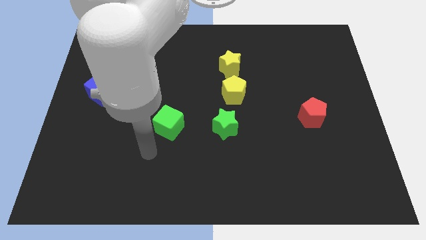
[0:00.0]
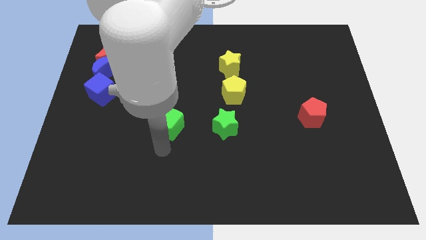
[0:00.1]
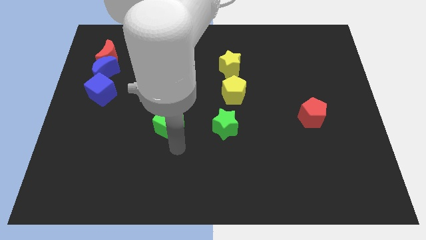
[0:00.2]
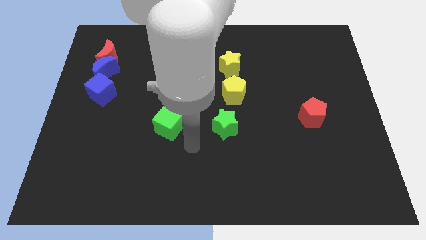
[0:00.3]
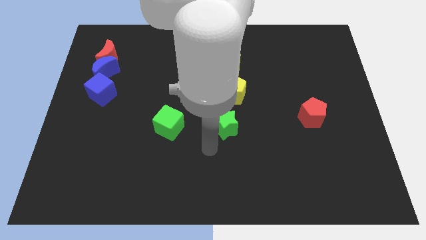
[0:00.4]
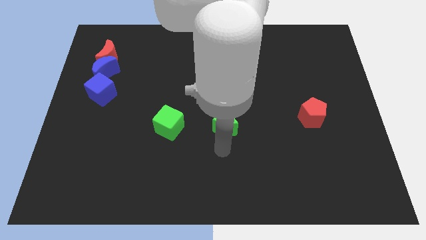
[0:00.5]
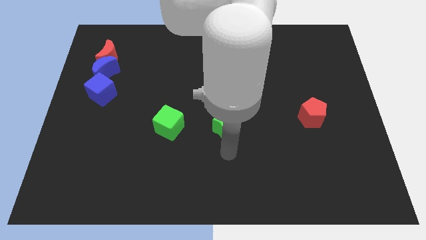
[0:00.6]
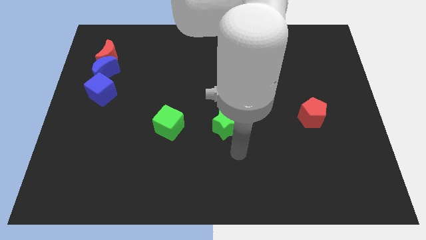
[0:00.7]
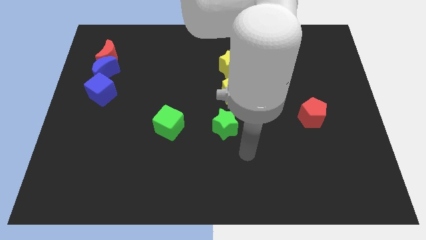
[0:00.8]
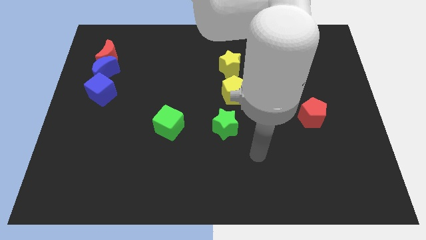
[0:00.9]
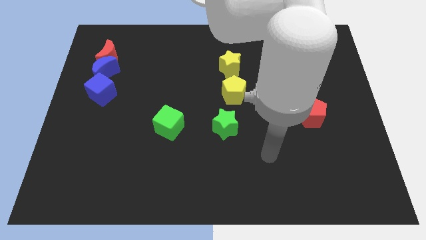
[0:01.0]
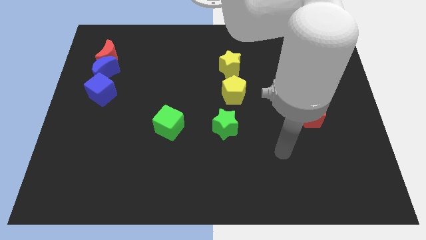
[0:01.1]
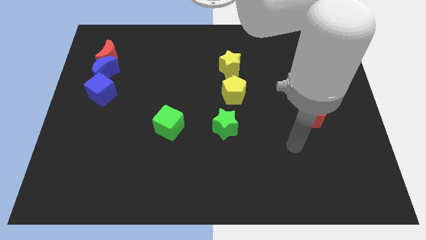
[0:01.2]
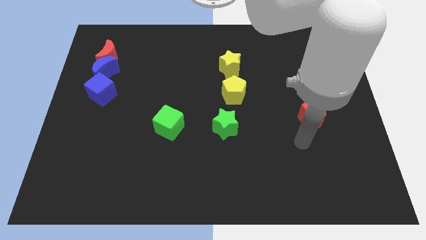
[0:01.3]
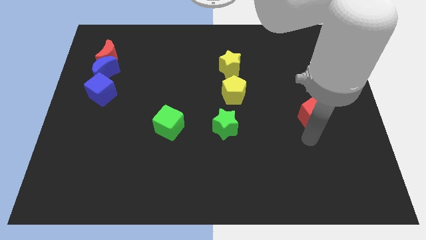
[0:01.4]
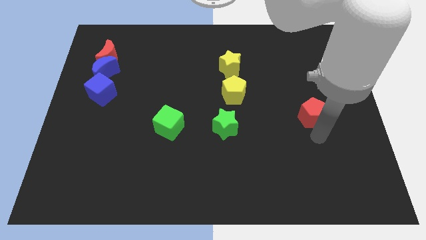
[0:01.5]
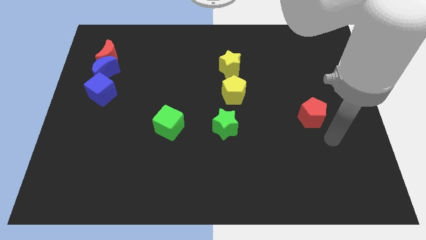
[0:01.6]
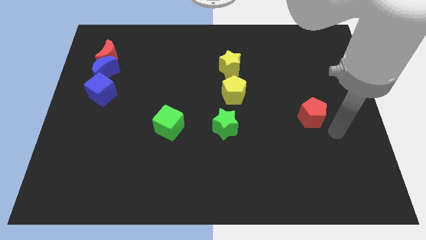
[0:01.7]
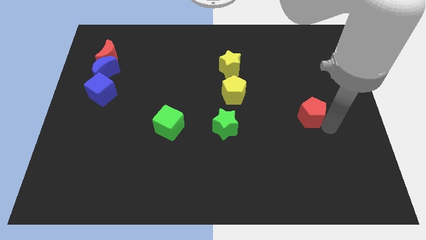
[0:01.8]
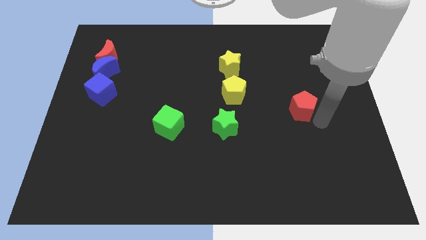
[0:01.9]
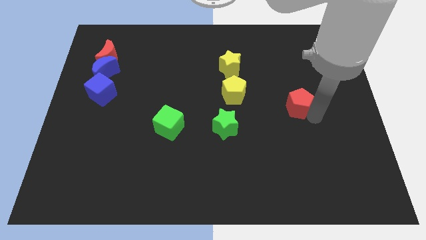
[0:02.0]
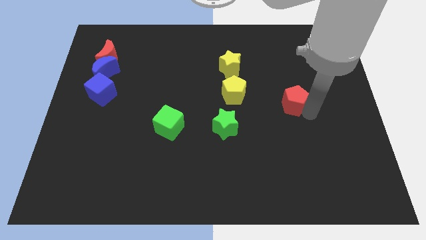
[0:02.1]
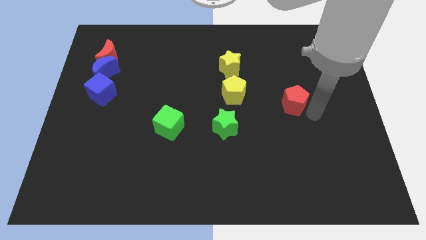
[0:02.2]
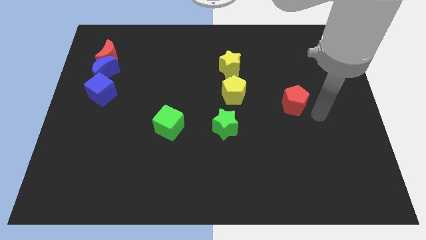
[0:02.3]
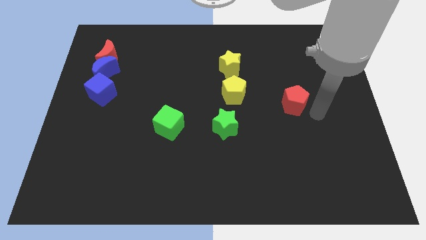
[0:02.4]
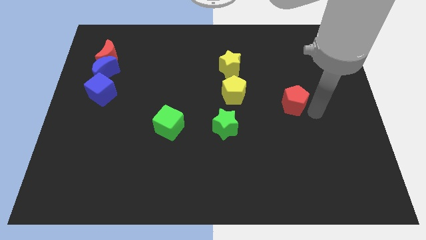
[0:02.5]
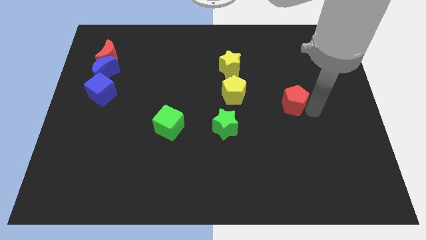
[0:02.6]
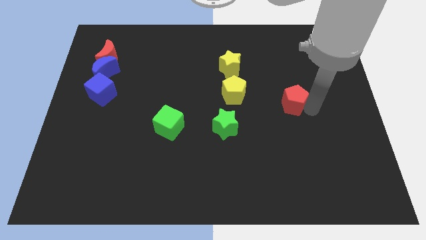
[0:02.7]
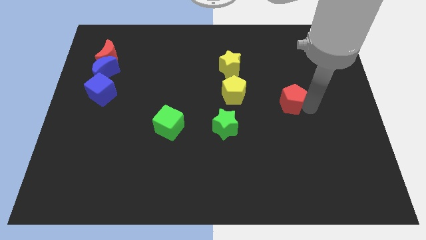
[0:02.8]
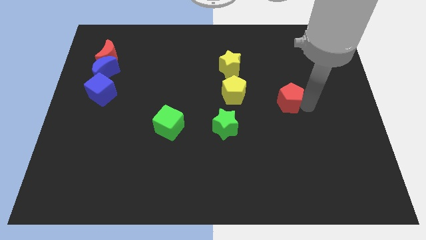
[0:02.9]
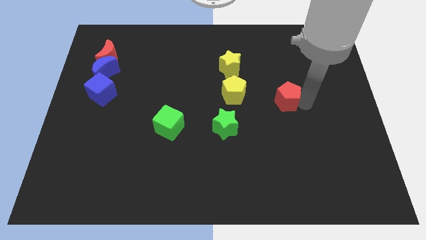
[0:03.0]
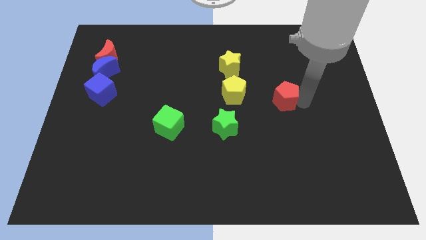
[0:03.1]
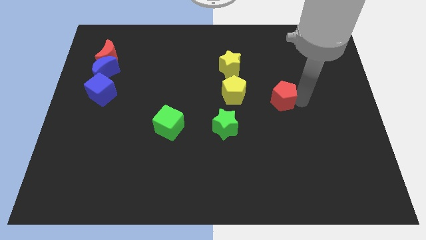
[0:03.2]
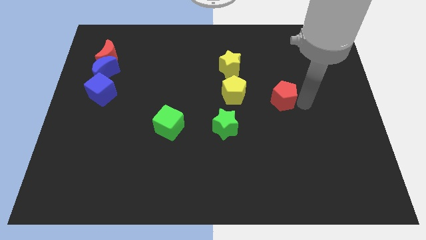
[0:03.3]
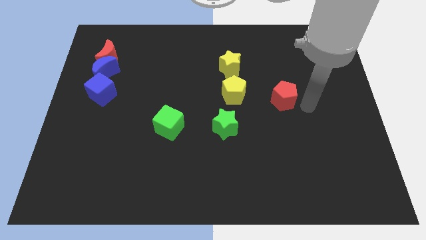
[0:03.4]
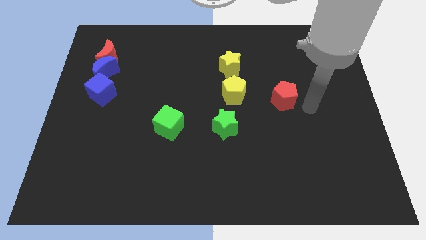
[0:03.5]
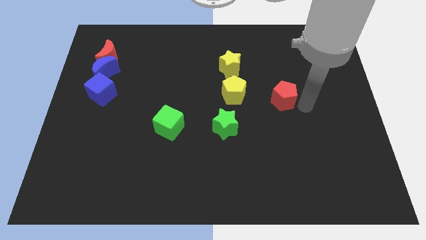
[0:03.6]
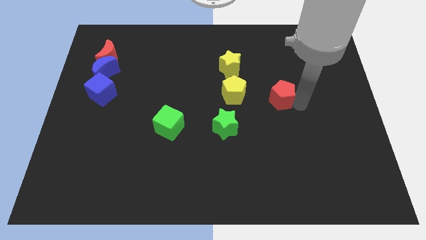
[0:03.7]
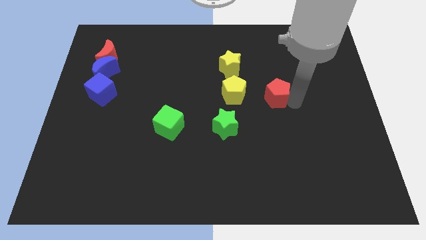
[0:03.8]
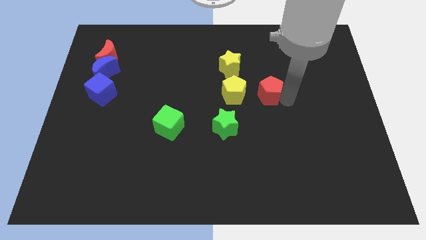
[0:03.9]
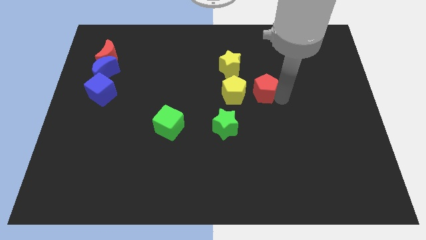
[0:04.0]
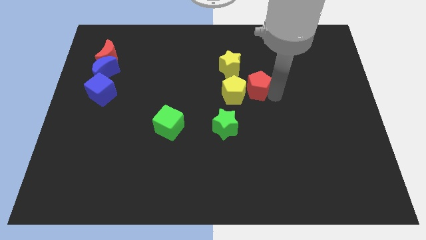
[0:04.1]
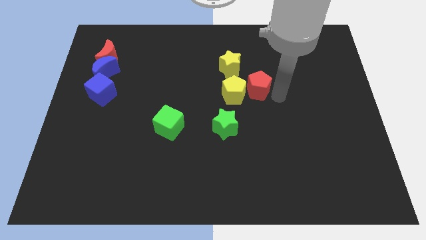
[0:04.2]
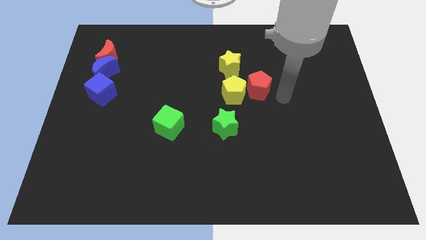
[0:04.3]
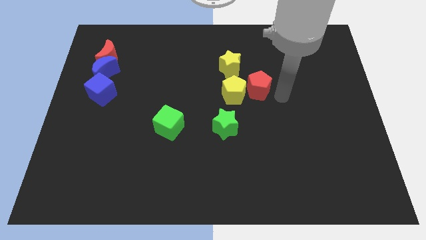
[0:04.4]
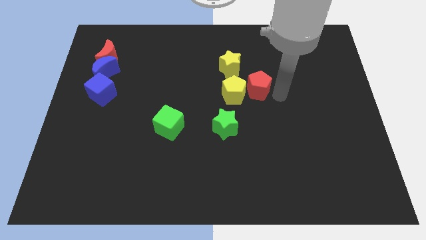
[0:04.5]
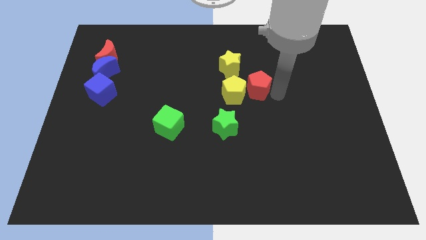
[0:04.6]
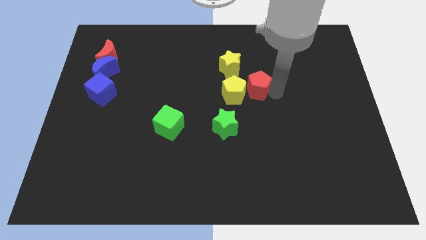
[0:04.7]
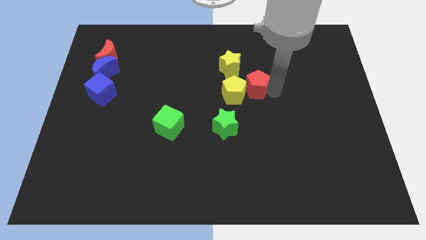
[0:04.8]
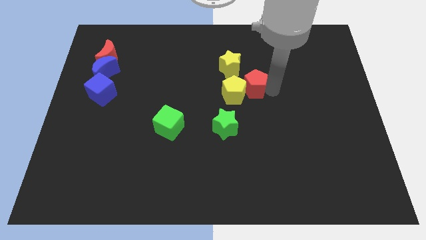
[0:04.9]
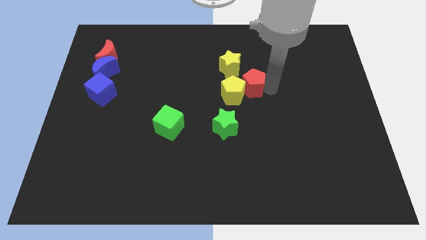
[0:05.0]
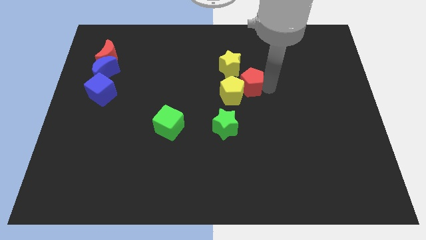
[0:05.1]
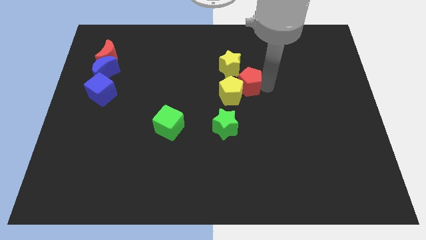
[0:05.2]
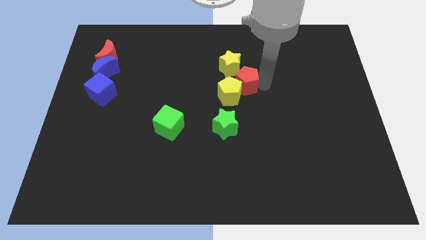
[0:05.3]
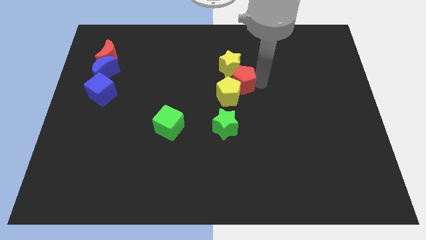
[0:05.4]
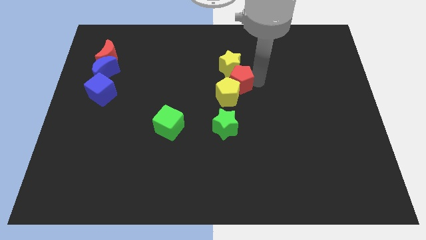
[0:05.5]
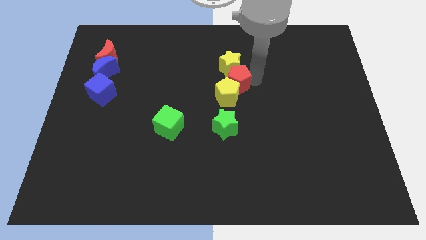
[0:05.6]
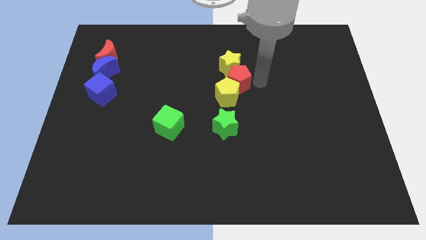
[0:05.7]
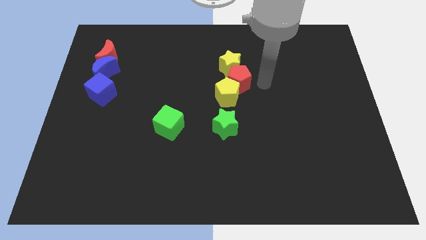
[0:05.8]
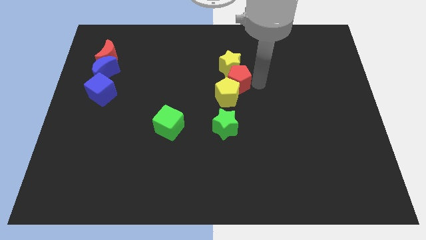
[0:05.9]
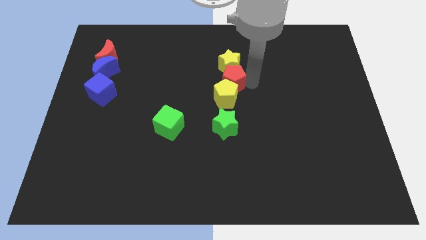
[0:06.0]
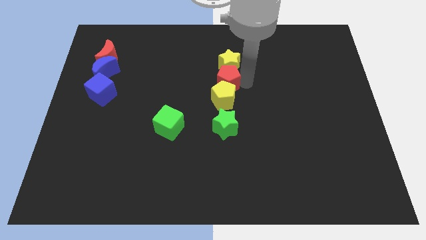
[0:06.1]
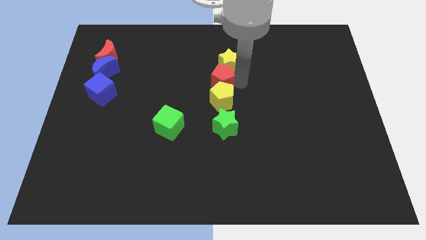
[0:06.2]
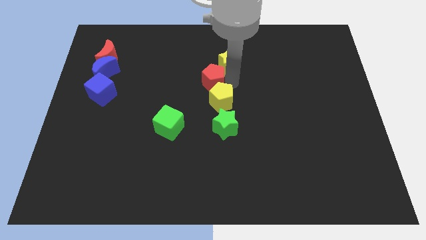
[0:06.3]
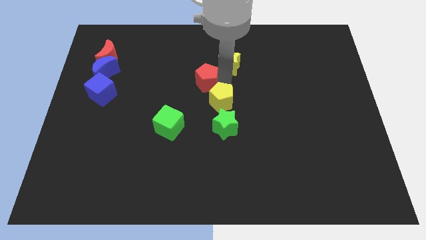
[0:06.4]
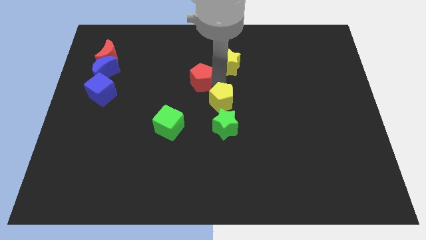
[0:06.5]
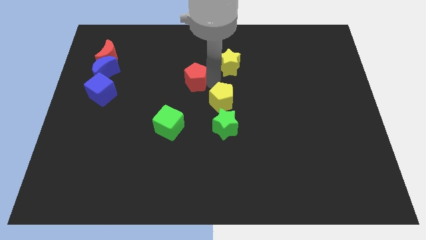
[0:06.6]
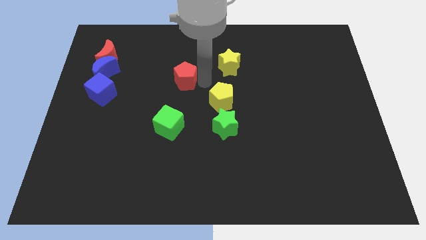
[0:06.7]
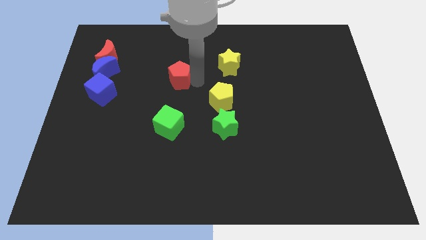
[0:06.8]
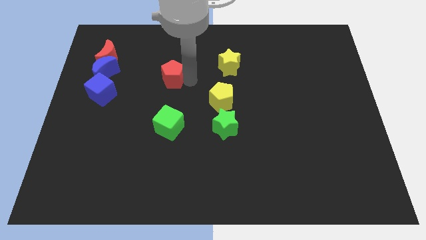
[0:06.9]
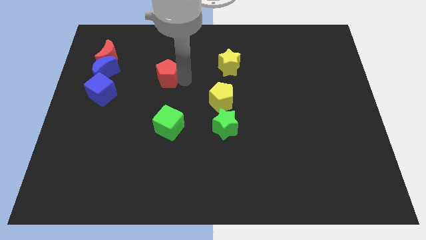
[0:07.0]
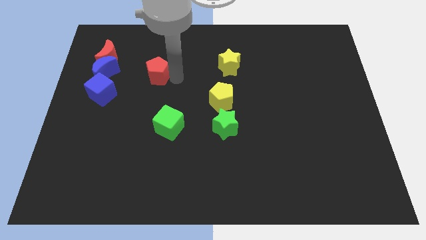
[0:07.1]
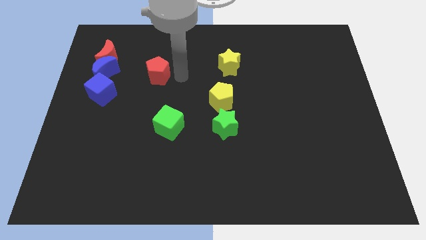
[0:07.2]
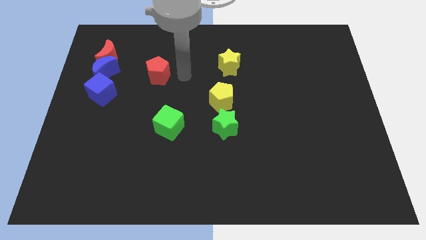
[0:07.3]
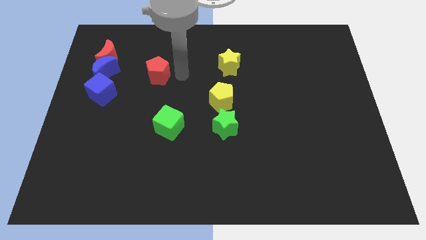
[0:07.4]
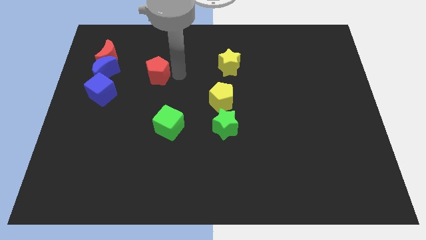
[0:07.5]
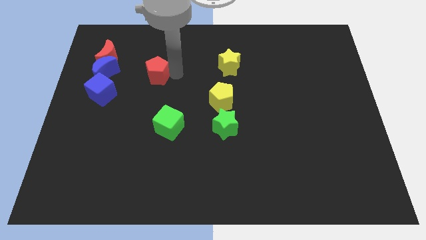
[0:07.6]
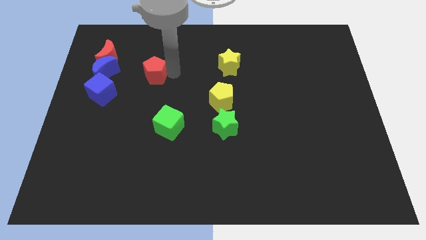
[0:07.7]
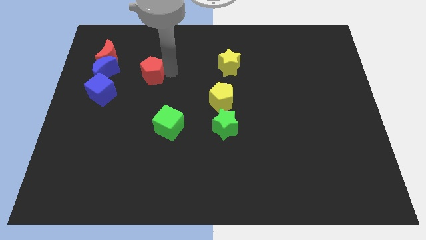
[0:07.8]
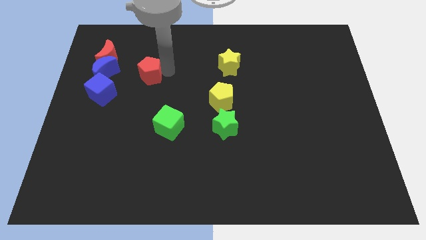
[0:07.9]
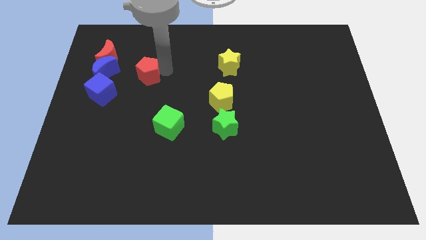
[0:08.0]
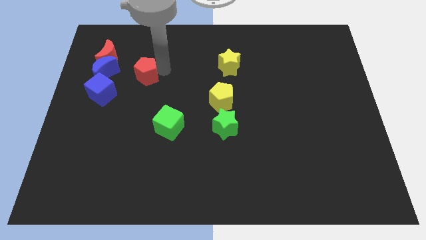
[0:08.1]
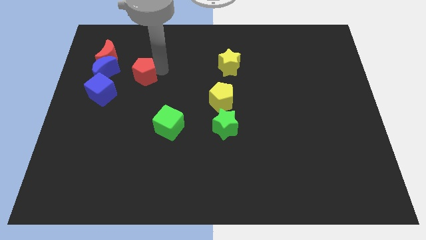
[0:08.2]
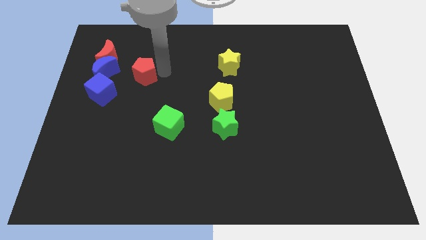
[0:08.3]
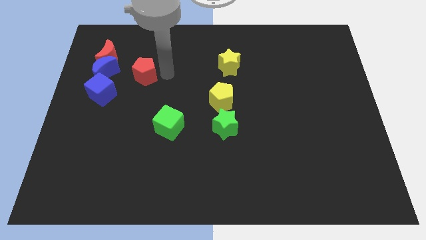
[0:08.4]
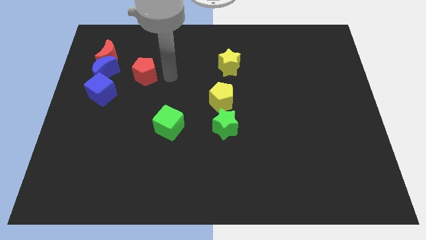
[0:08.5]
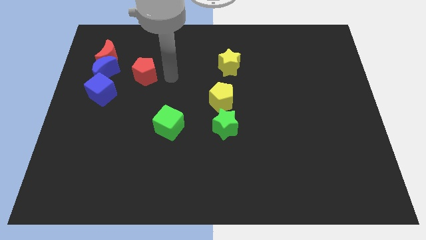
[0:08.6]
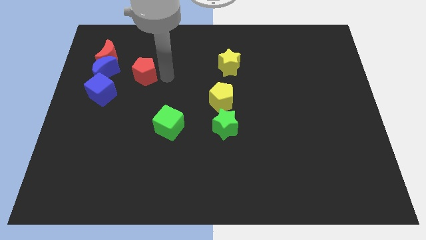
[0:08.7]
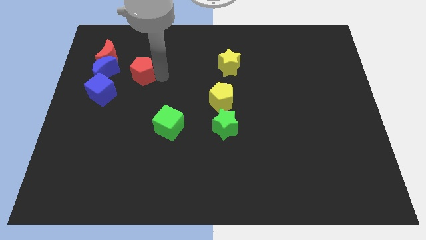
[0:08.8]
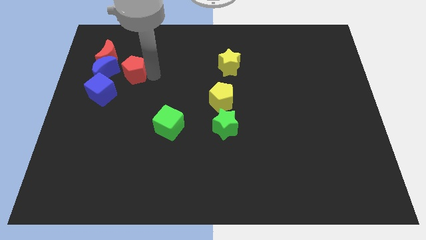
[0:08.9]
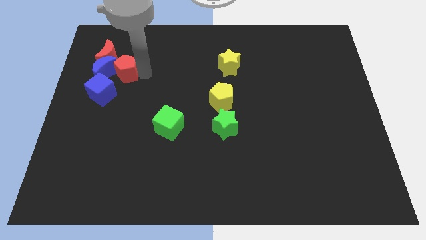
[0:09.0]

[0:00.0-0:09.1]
move the red pentagon close to the blue moon
